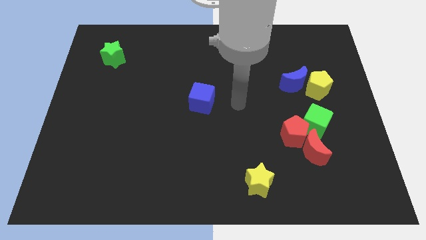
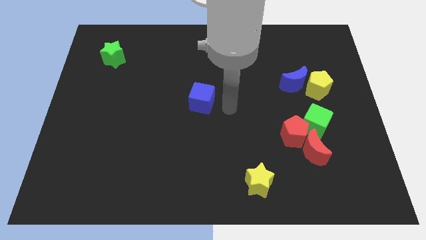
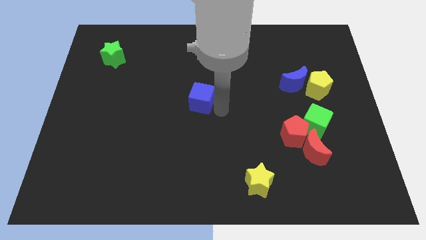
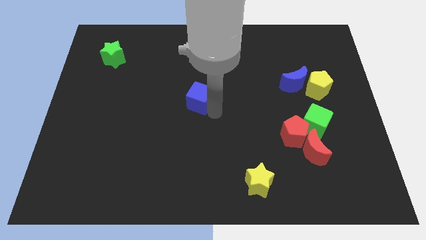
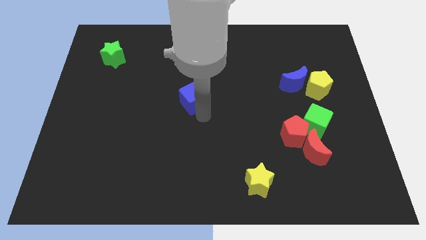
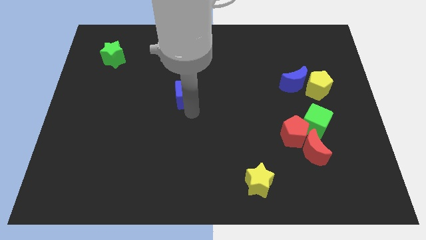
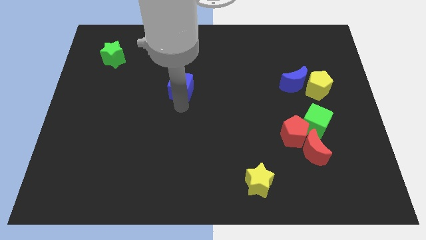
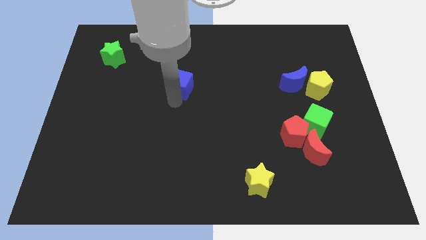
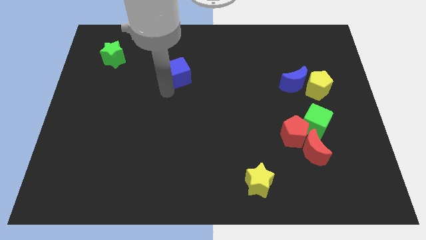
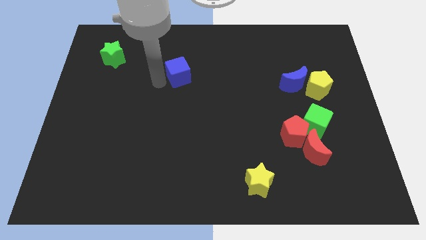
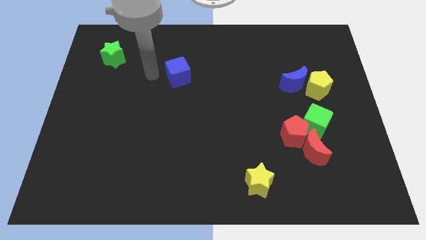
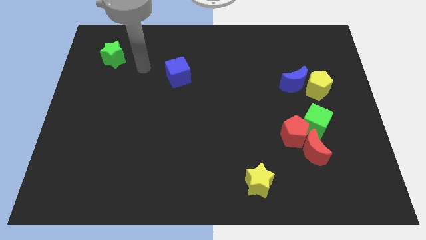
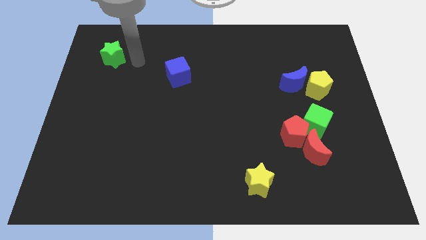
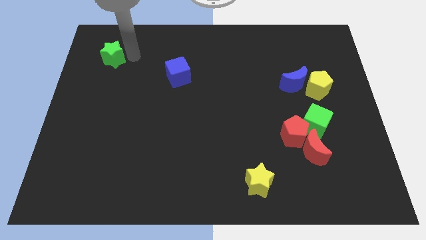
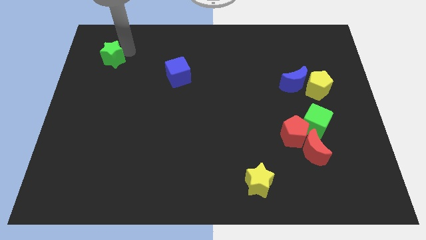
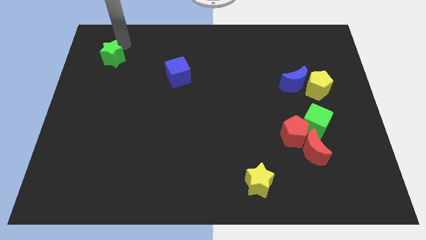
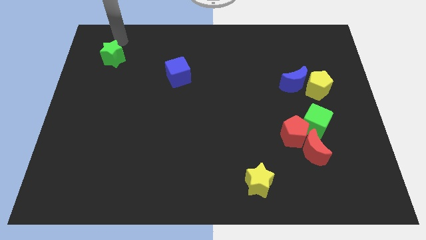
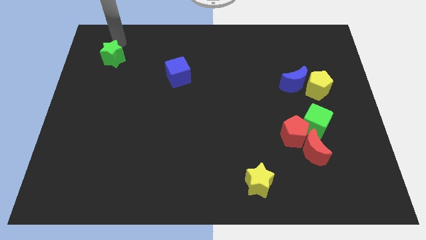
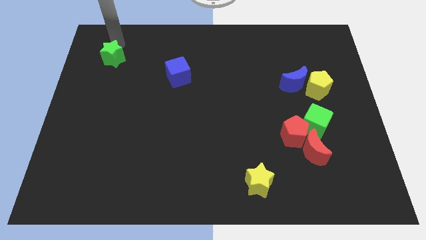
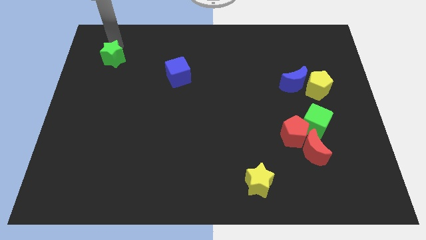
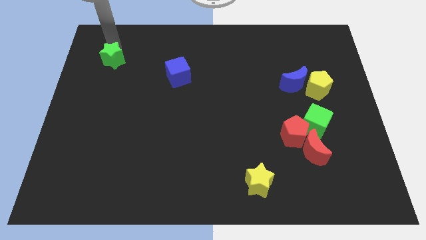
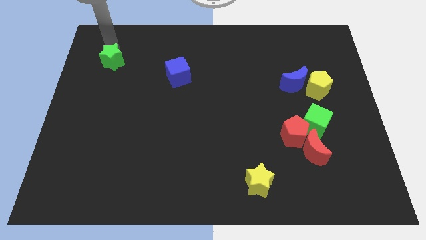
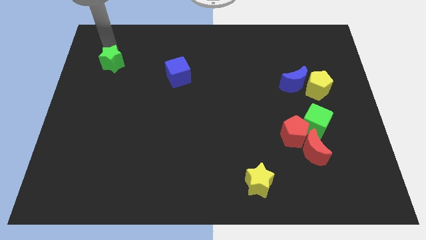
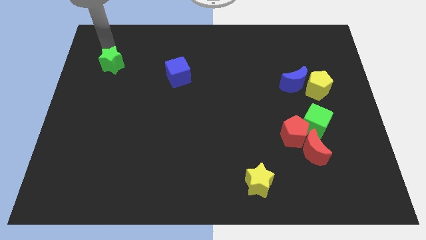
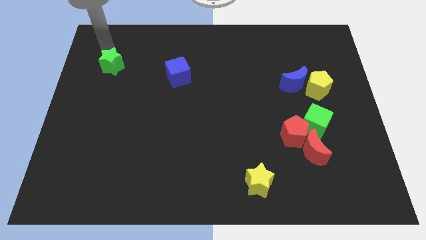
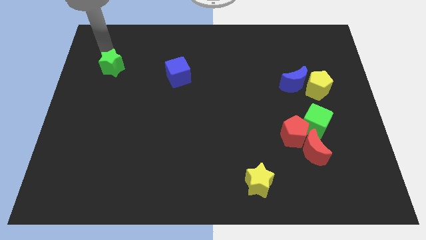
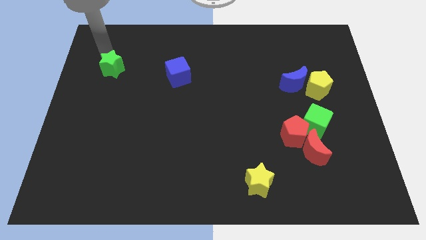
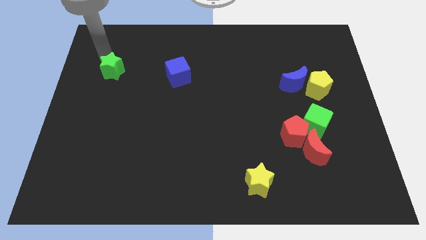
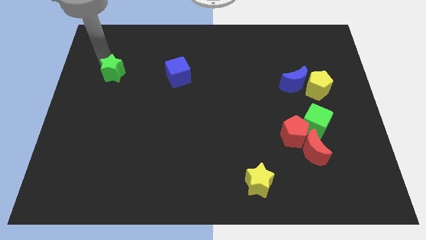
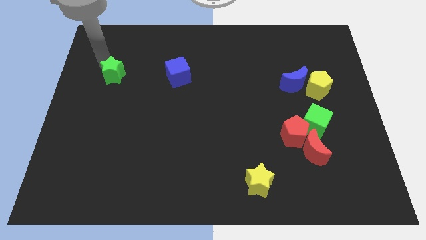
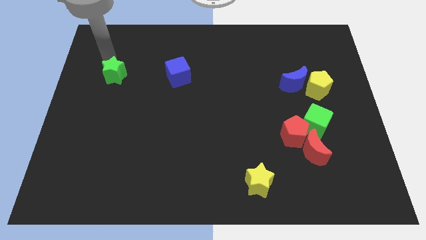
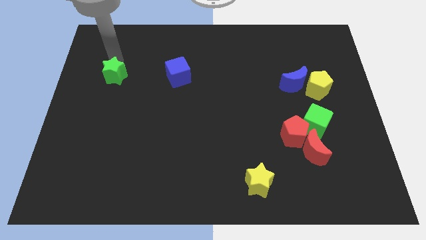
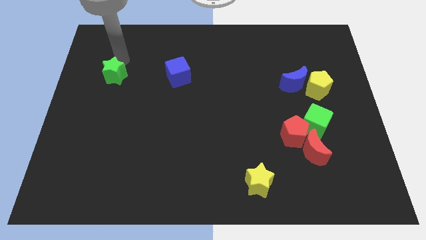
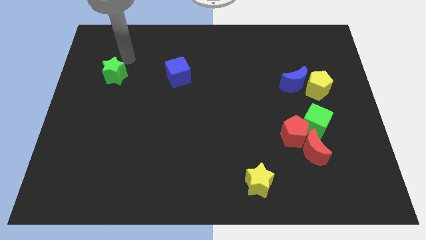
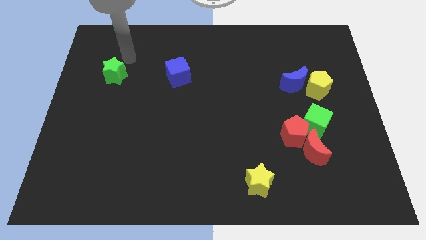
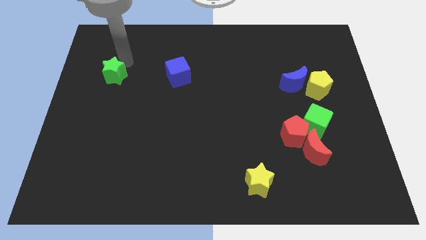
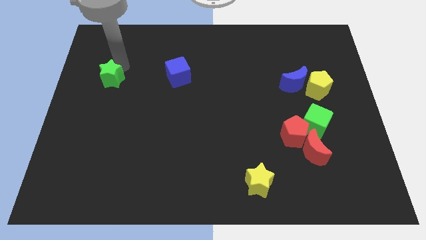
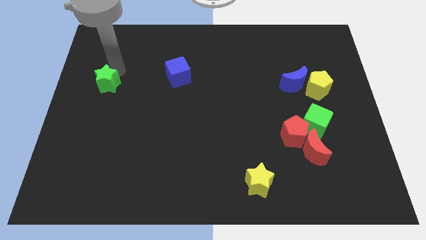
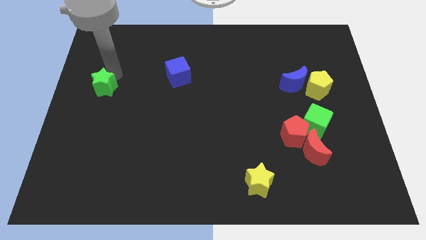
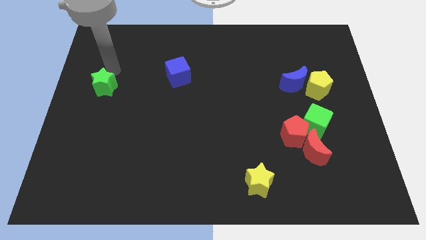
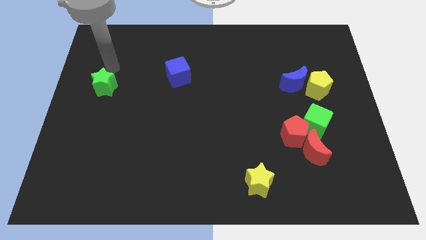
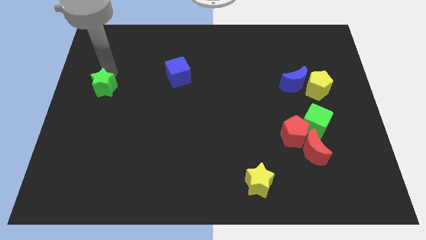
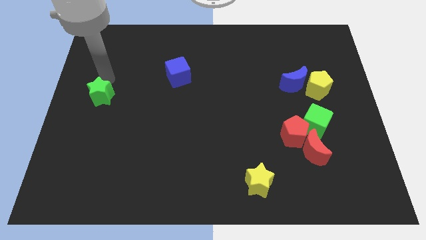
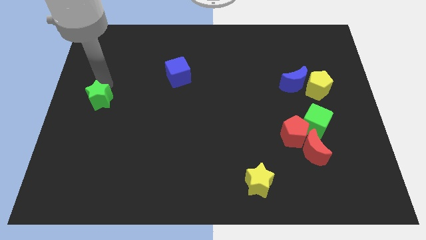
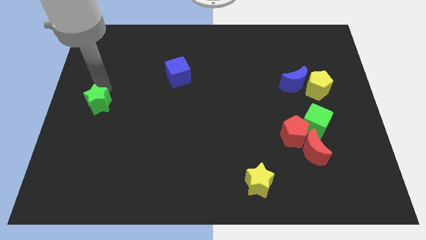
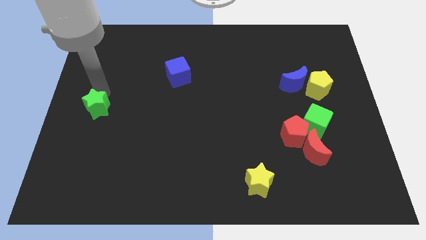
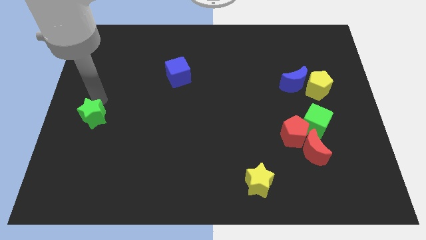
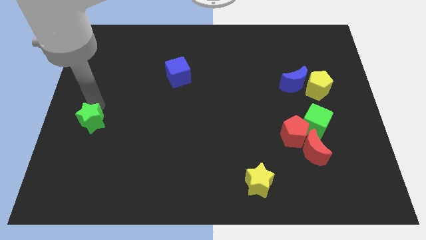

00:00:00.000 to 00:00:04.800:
push the green star down

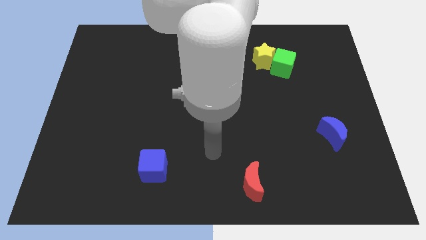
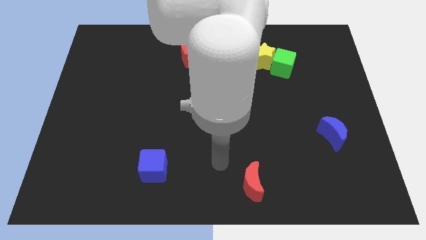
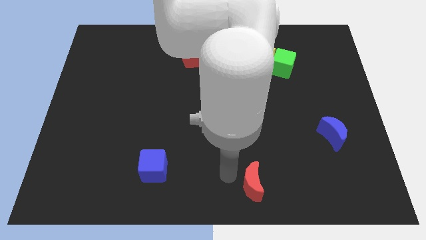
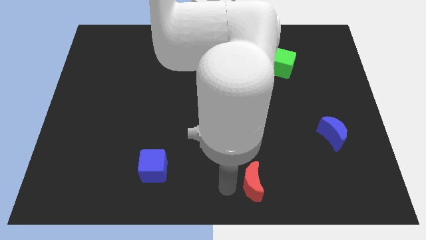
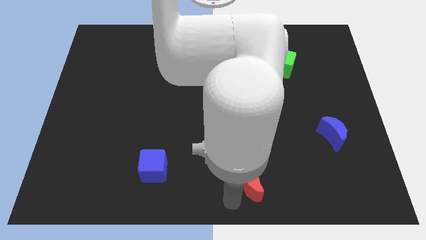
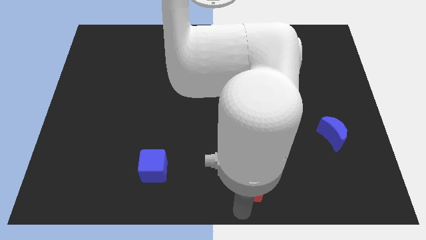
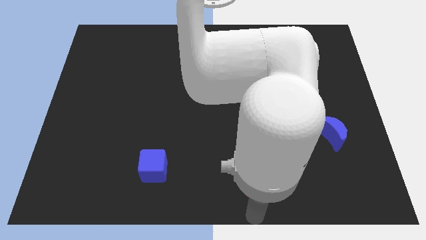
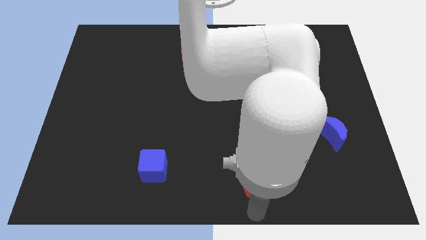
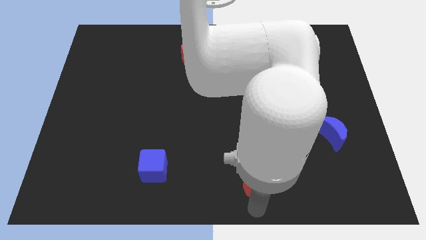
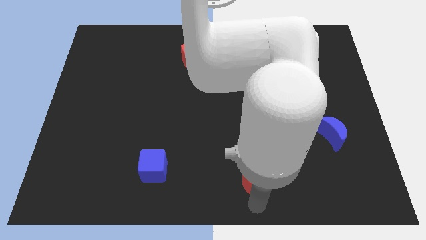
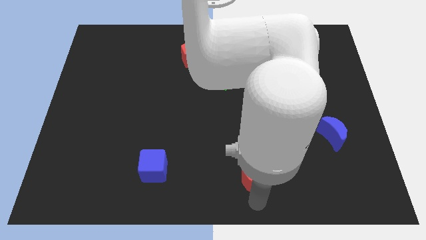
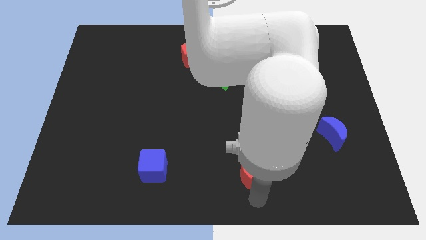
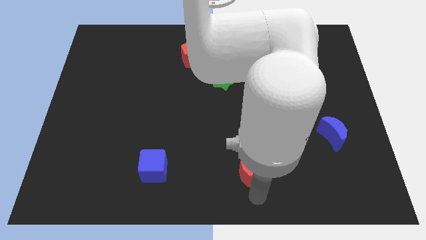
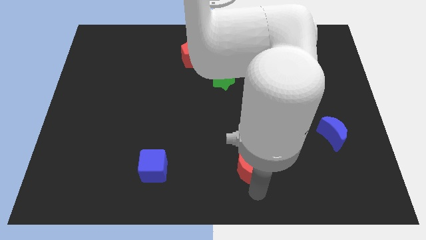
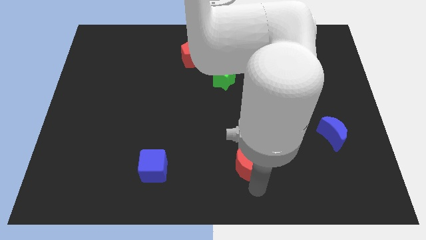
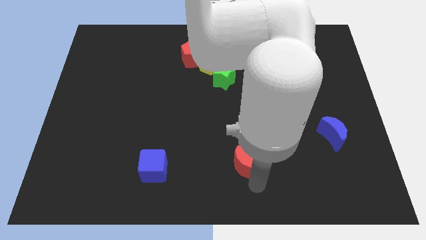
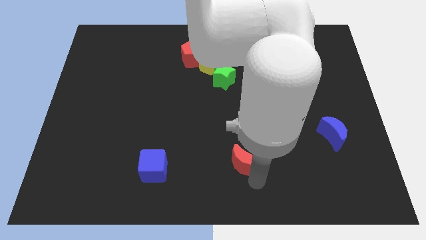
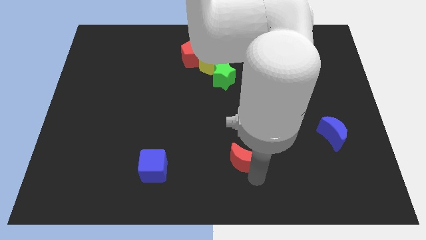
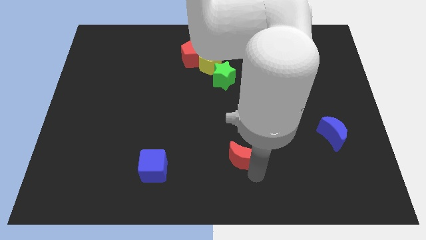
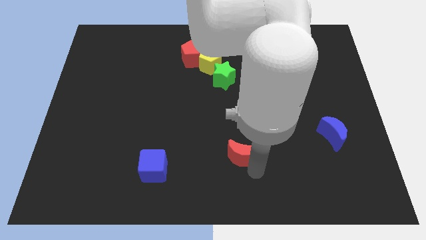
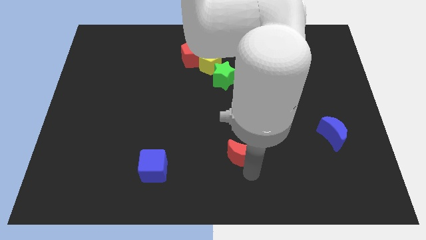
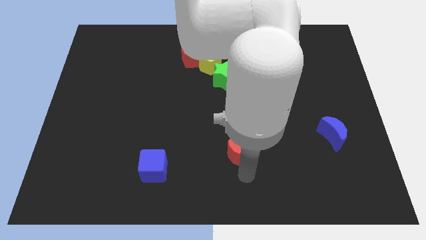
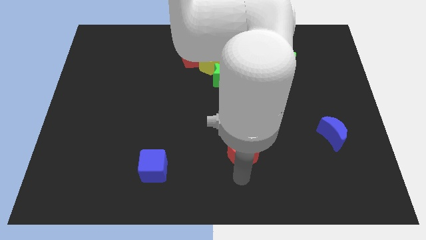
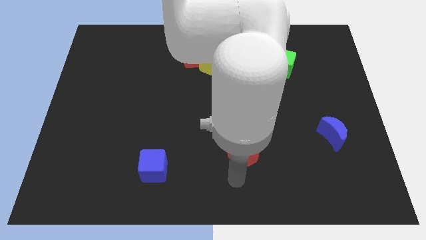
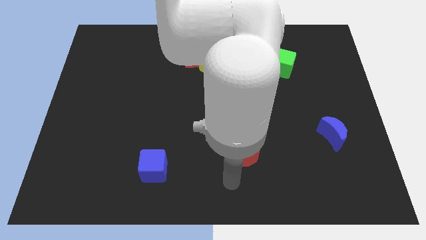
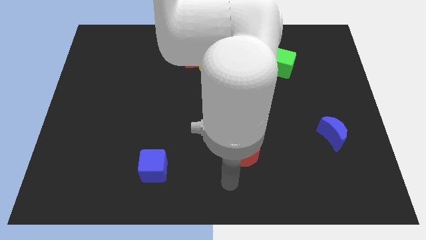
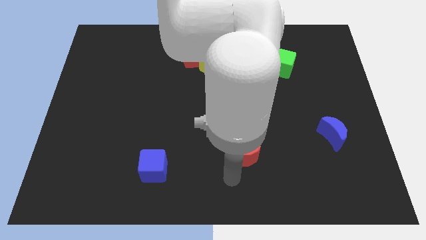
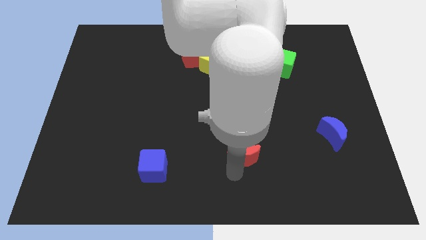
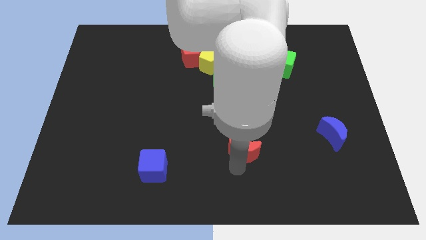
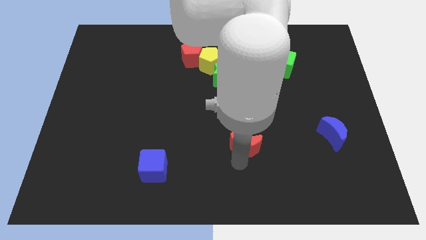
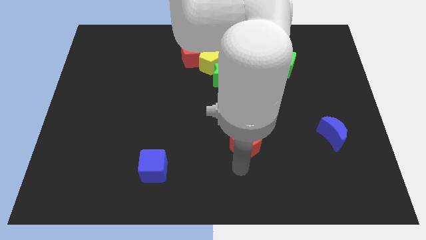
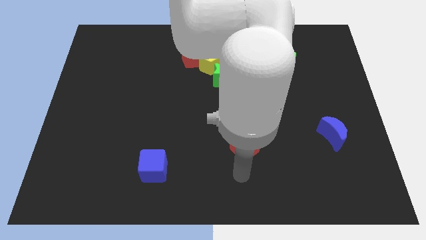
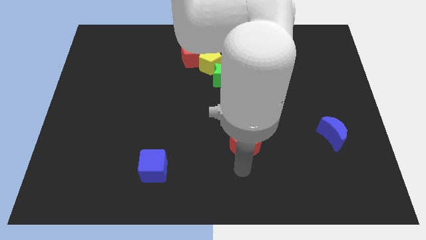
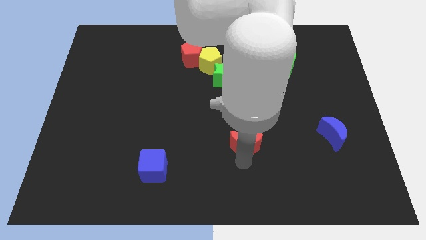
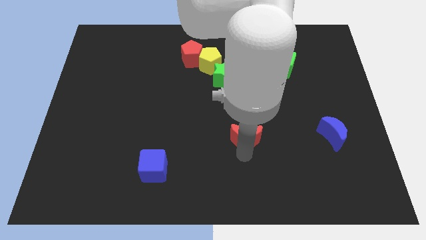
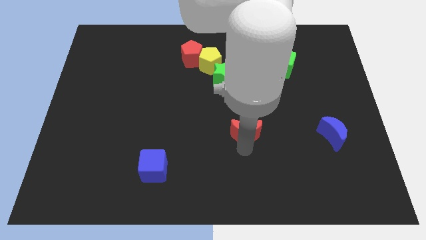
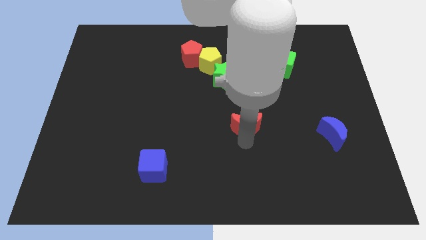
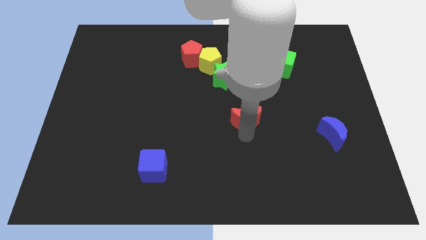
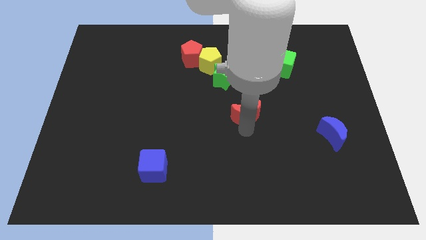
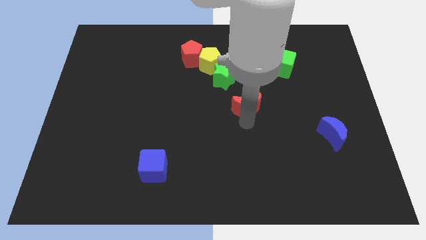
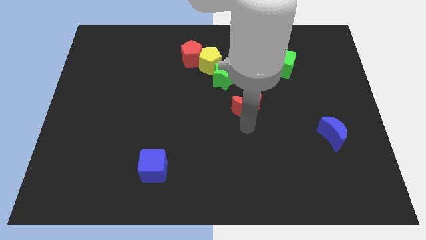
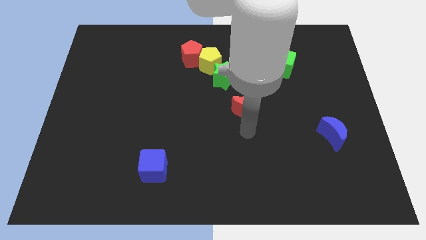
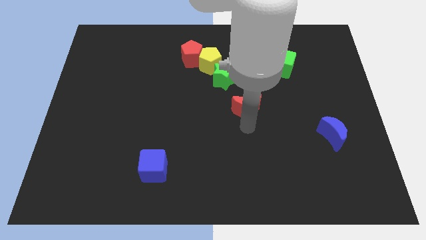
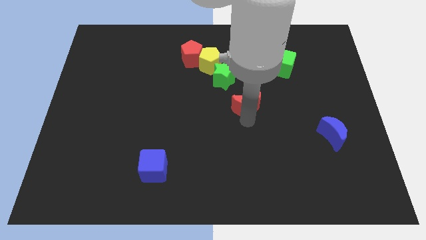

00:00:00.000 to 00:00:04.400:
slide the red moon up
